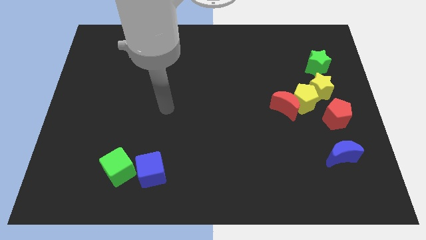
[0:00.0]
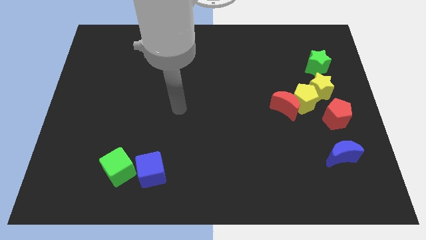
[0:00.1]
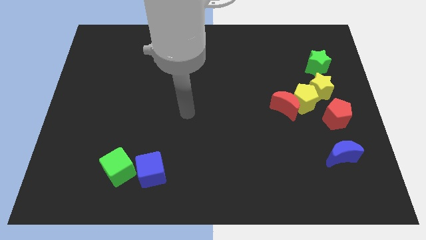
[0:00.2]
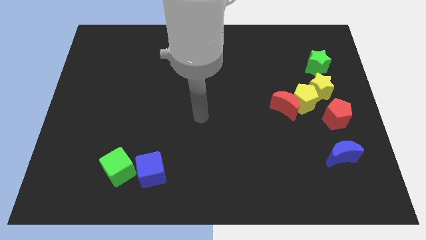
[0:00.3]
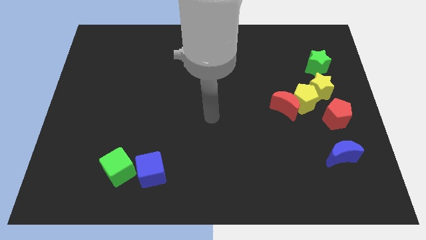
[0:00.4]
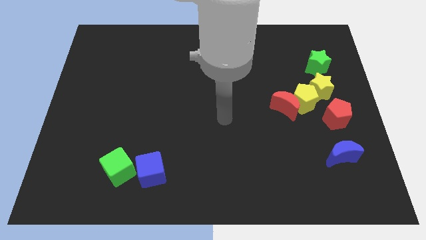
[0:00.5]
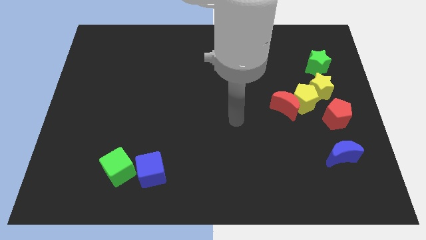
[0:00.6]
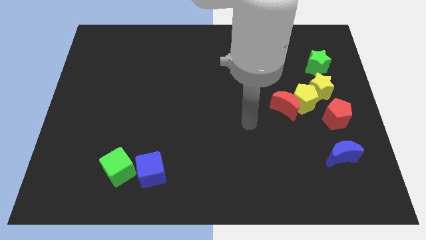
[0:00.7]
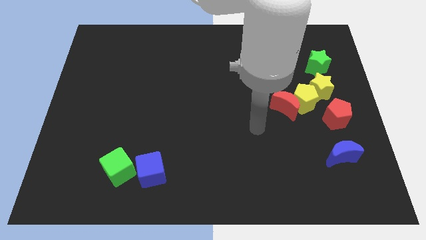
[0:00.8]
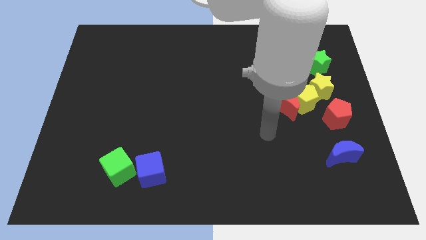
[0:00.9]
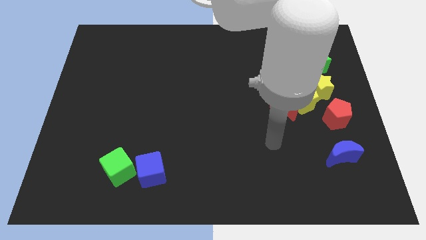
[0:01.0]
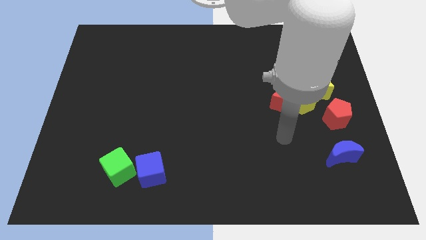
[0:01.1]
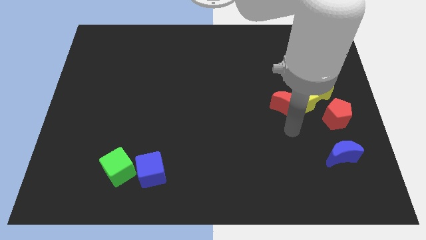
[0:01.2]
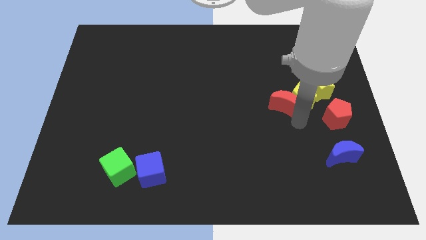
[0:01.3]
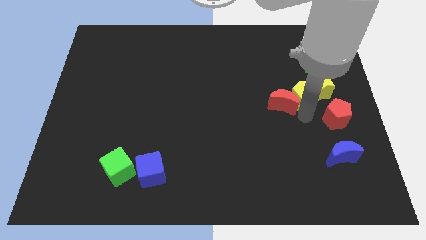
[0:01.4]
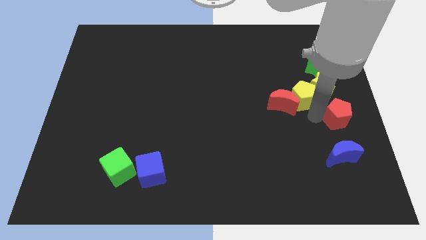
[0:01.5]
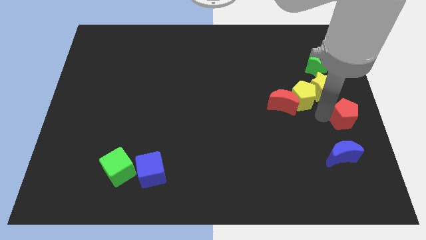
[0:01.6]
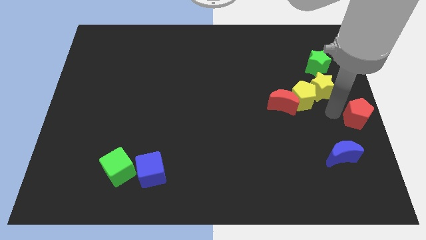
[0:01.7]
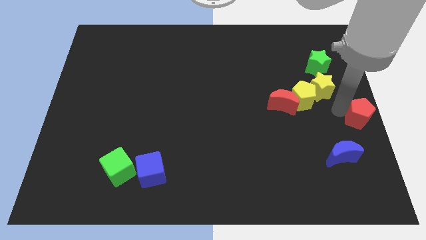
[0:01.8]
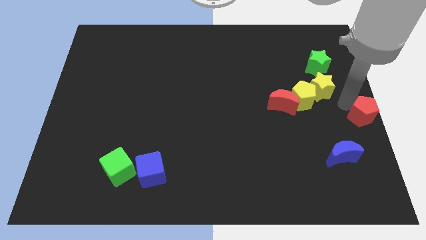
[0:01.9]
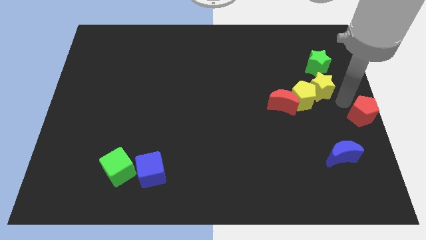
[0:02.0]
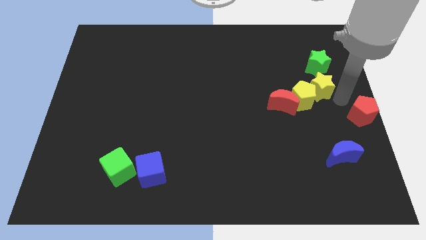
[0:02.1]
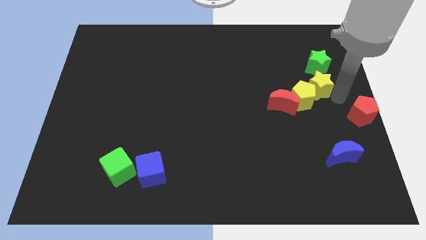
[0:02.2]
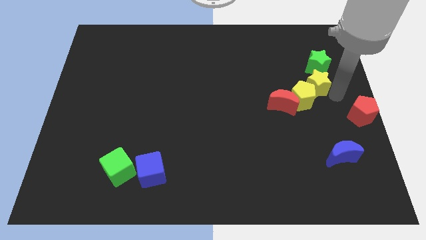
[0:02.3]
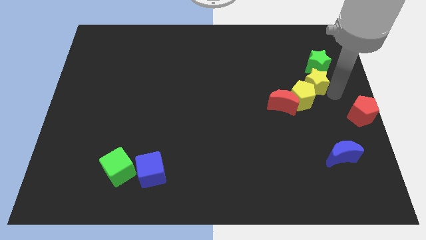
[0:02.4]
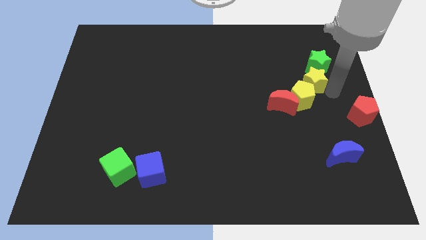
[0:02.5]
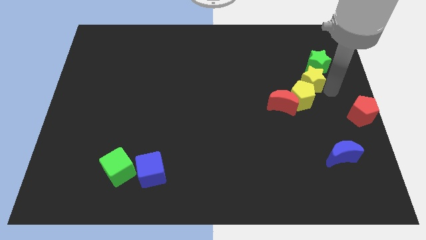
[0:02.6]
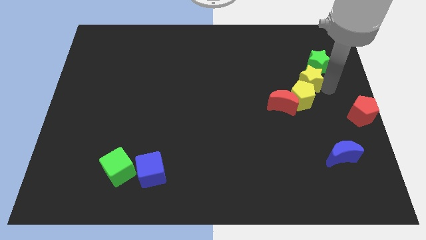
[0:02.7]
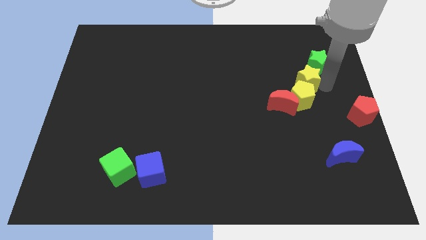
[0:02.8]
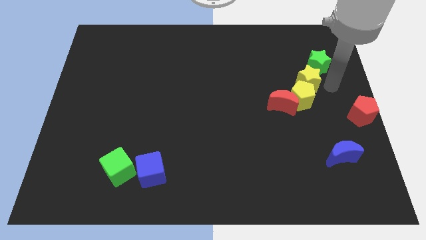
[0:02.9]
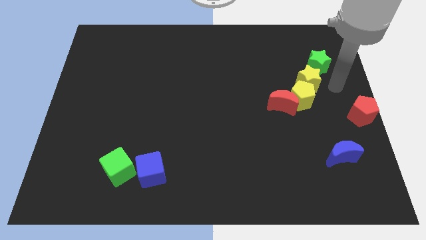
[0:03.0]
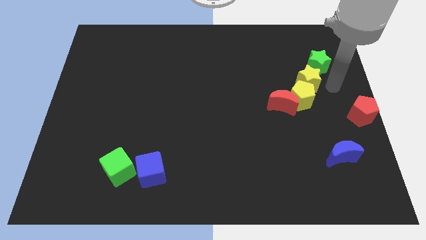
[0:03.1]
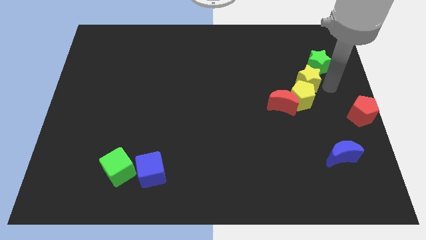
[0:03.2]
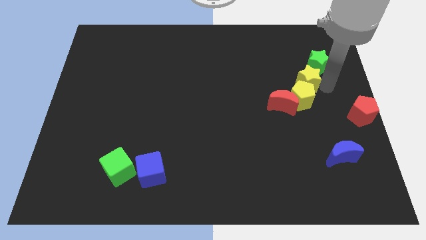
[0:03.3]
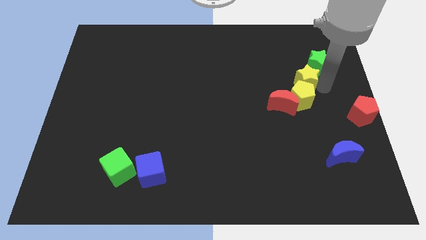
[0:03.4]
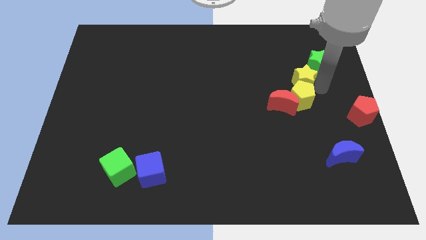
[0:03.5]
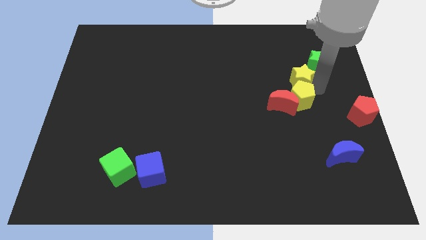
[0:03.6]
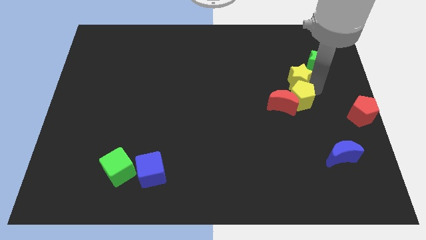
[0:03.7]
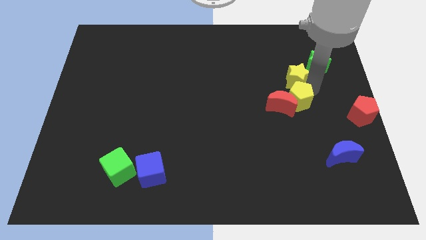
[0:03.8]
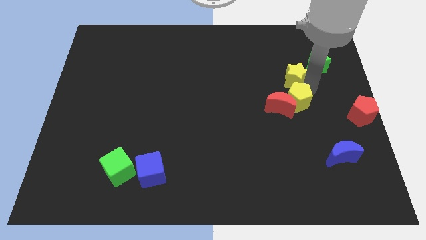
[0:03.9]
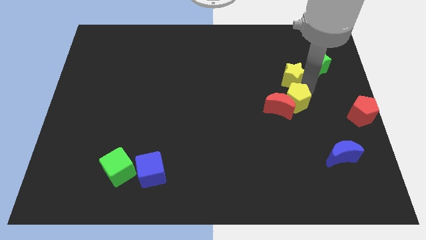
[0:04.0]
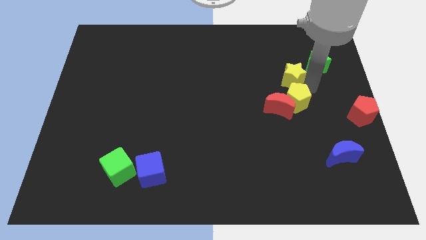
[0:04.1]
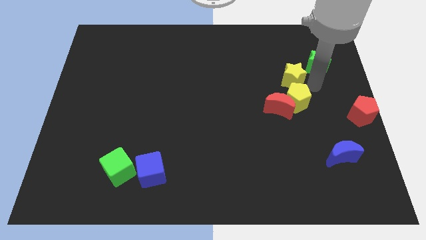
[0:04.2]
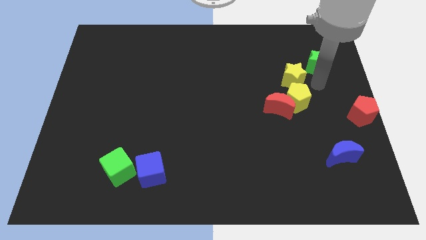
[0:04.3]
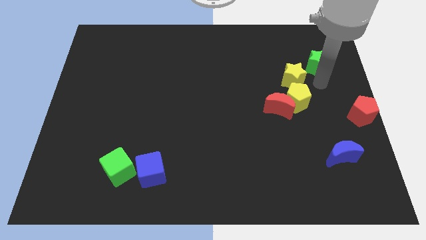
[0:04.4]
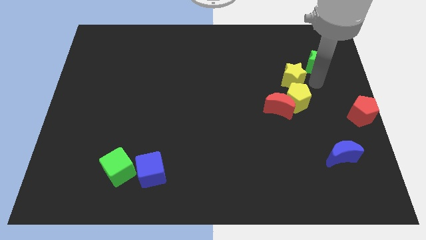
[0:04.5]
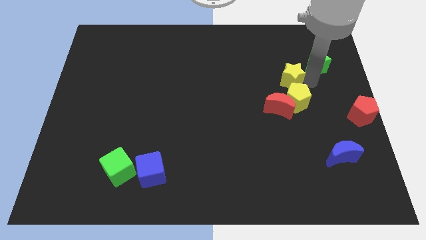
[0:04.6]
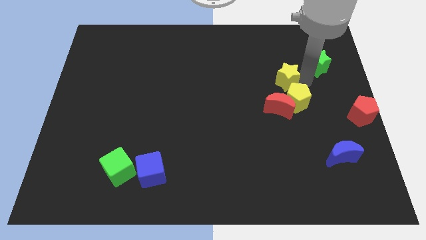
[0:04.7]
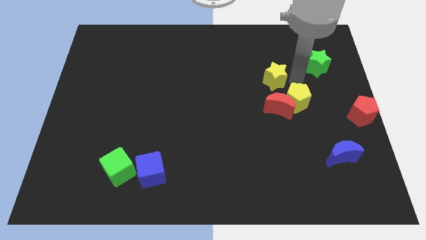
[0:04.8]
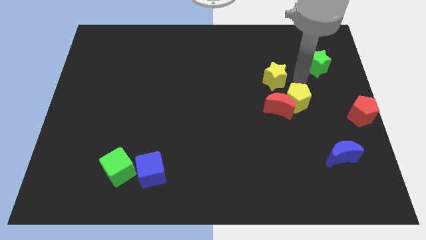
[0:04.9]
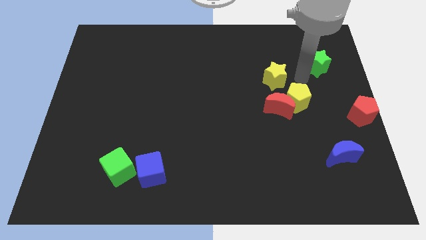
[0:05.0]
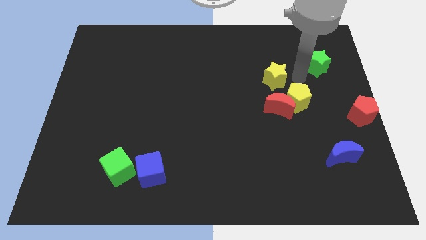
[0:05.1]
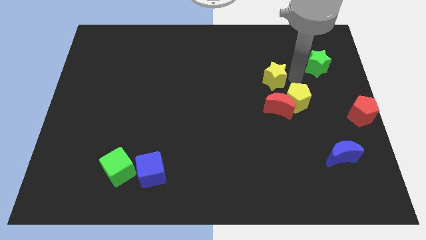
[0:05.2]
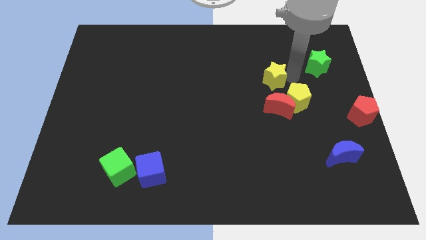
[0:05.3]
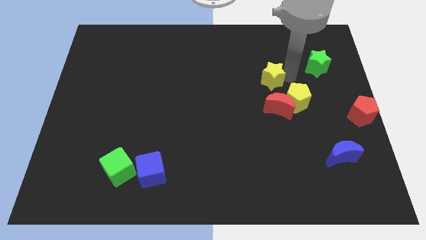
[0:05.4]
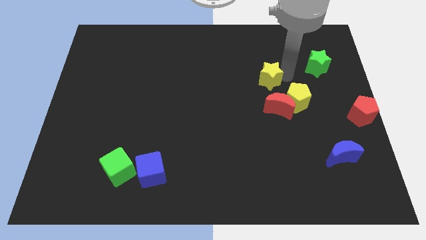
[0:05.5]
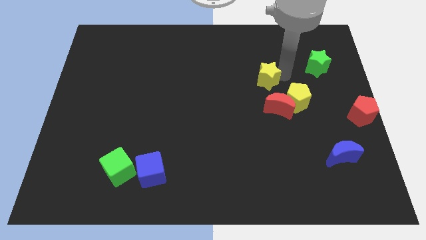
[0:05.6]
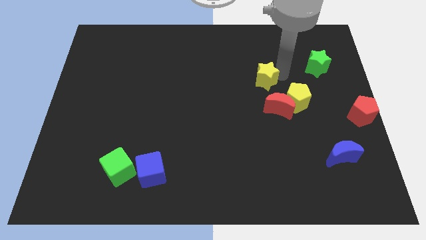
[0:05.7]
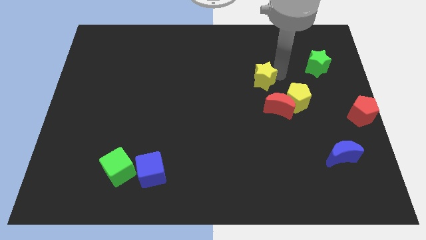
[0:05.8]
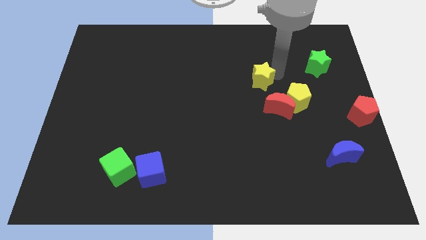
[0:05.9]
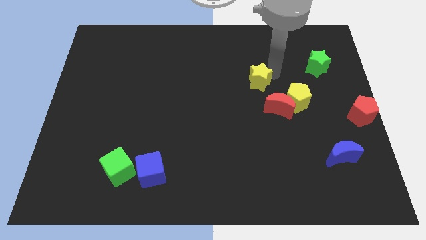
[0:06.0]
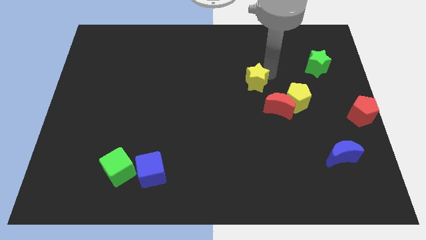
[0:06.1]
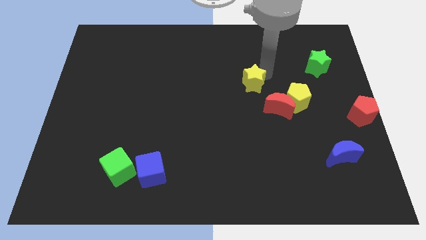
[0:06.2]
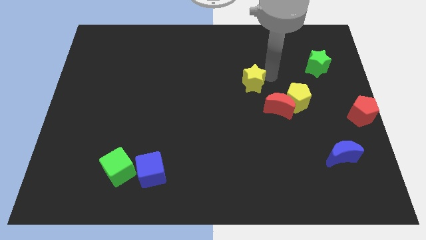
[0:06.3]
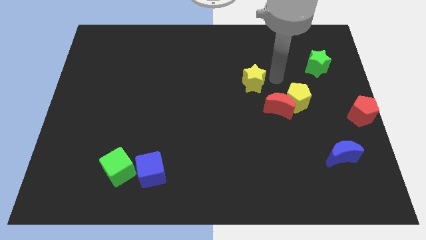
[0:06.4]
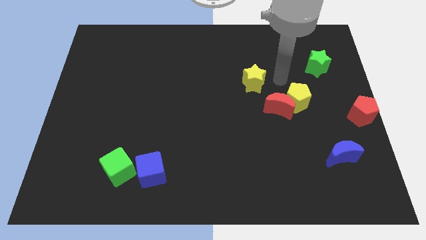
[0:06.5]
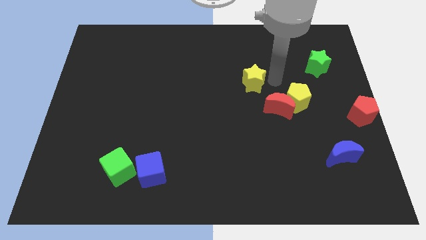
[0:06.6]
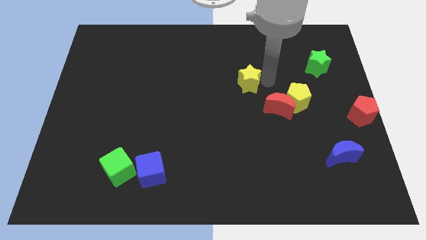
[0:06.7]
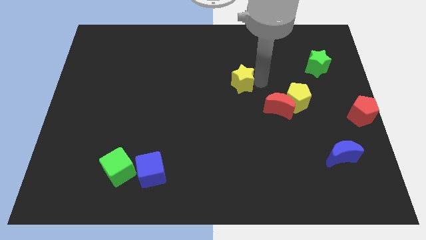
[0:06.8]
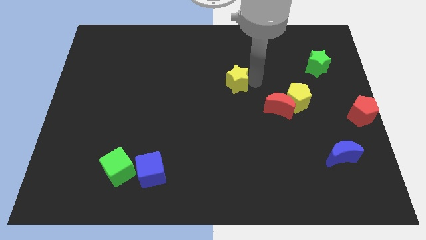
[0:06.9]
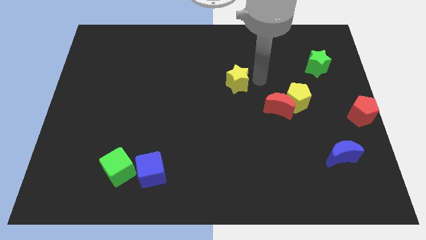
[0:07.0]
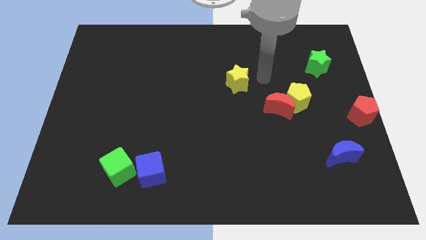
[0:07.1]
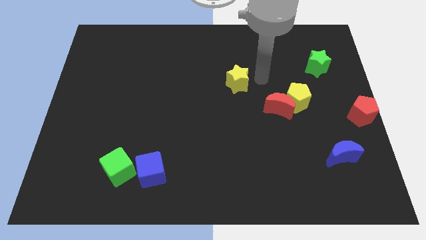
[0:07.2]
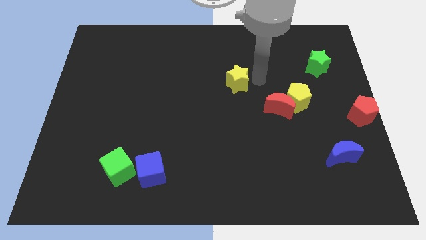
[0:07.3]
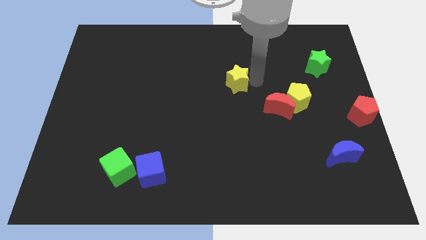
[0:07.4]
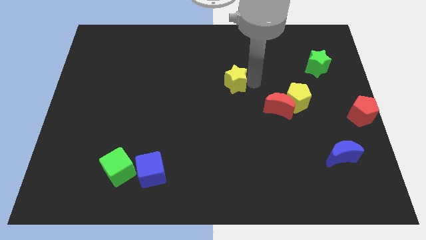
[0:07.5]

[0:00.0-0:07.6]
move the yellow star left

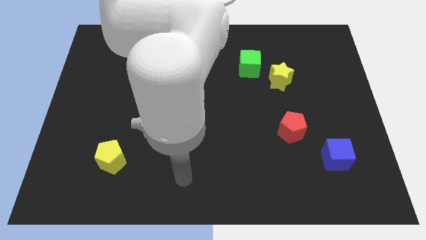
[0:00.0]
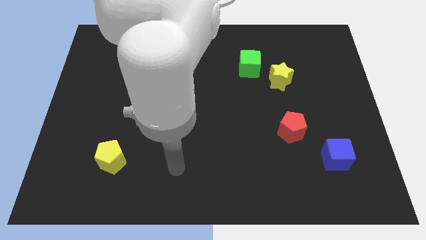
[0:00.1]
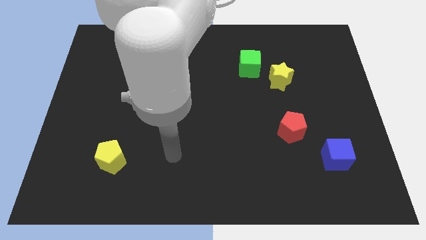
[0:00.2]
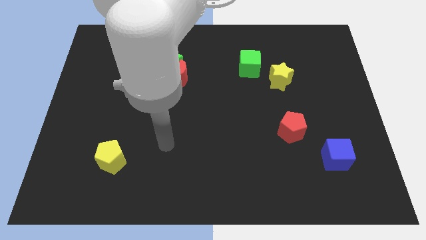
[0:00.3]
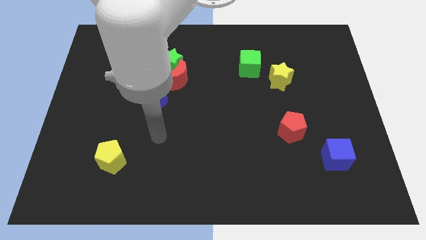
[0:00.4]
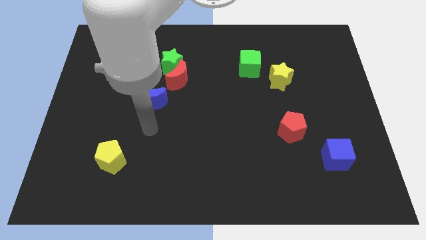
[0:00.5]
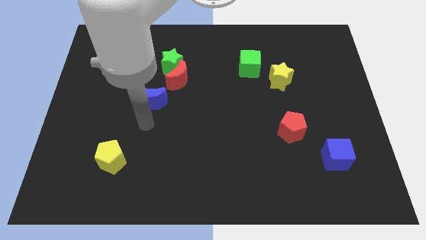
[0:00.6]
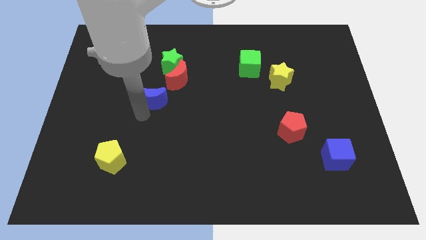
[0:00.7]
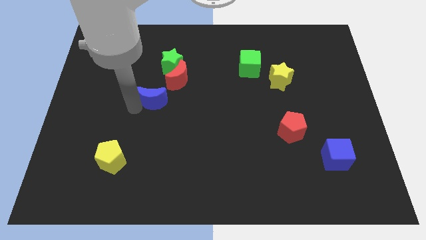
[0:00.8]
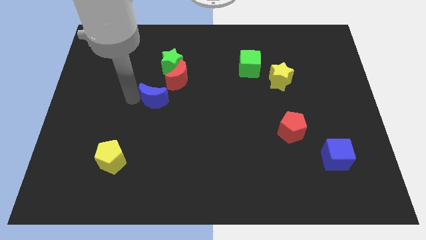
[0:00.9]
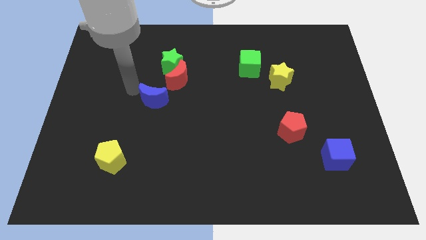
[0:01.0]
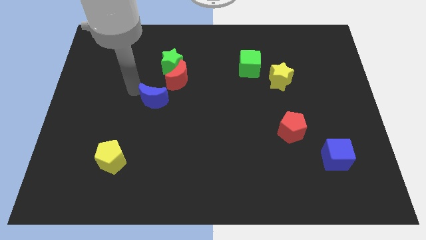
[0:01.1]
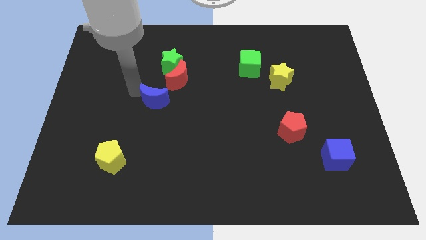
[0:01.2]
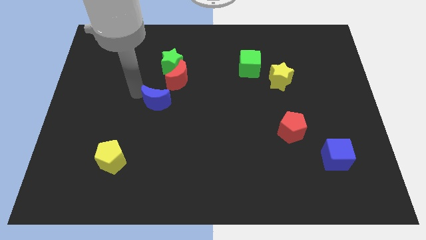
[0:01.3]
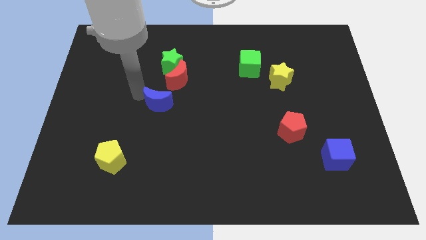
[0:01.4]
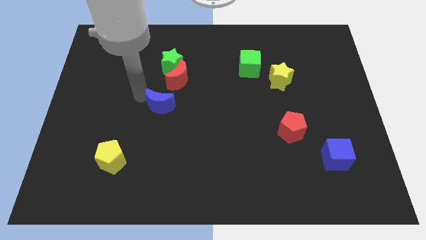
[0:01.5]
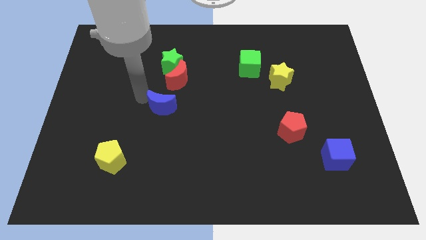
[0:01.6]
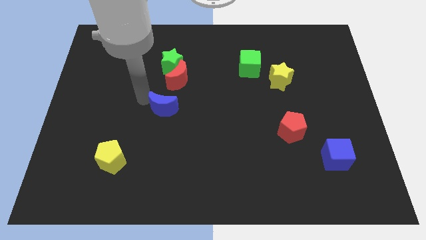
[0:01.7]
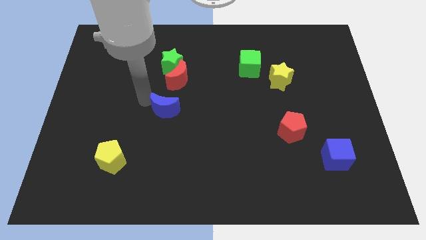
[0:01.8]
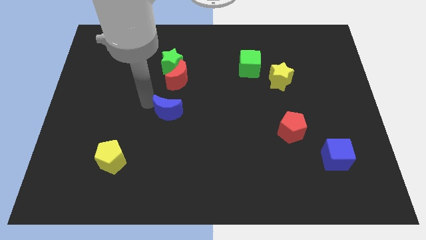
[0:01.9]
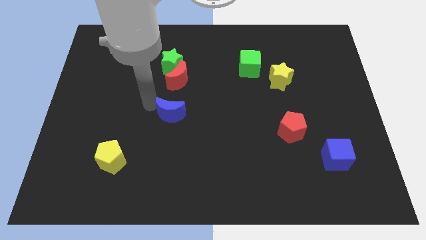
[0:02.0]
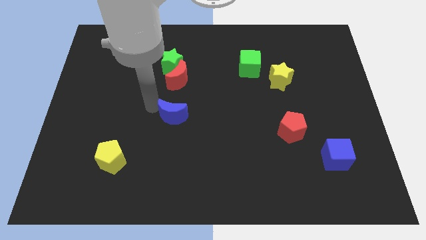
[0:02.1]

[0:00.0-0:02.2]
slightly push the blue moon down and to the right
